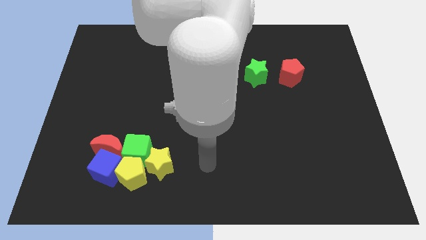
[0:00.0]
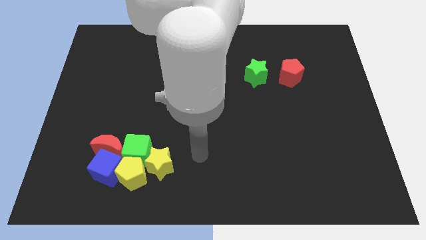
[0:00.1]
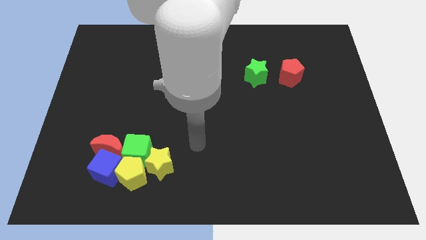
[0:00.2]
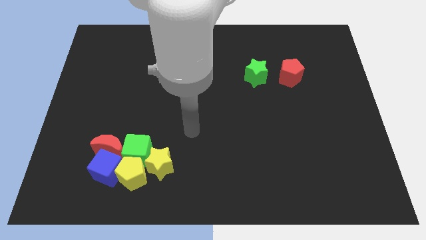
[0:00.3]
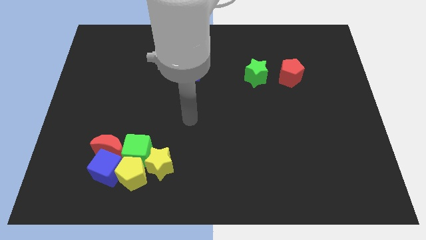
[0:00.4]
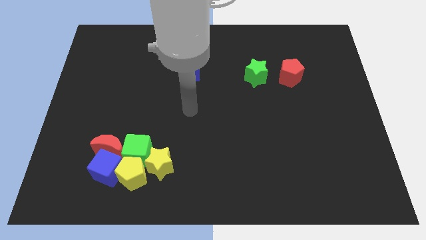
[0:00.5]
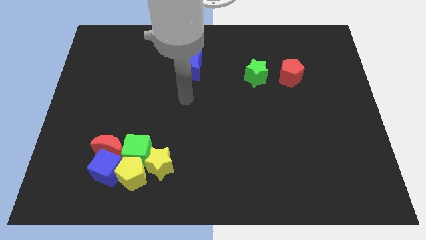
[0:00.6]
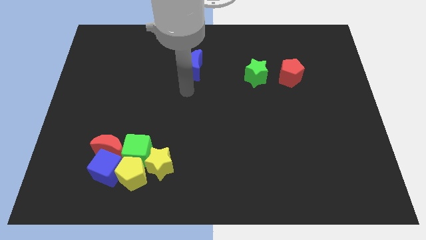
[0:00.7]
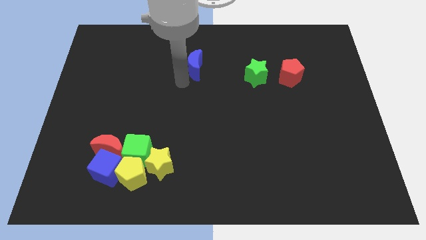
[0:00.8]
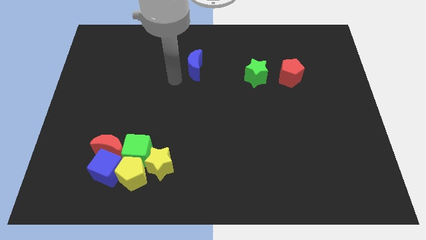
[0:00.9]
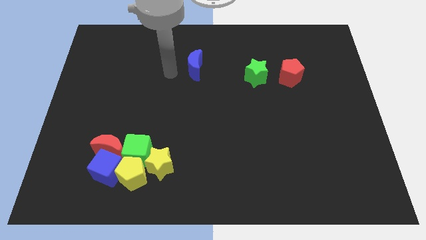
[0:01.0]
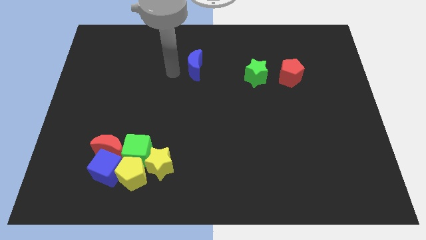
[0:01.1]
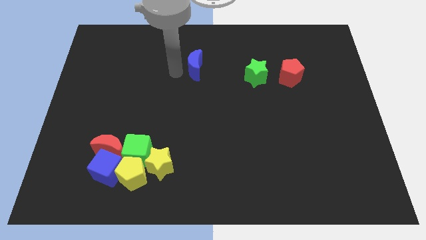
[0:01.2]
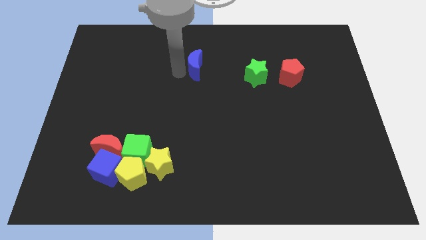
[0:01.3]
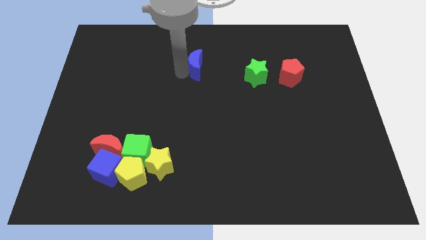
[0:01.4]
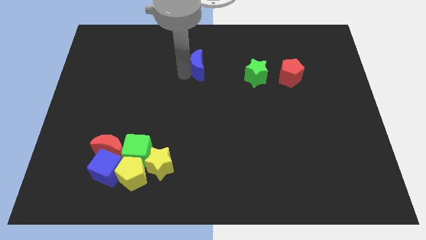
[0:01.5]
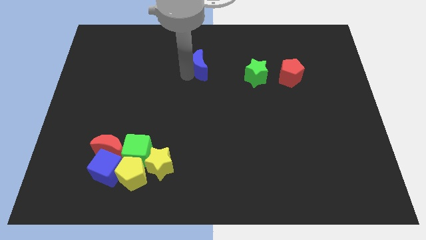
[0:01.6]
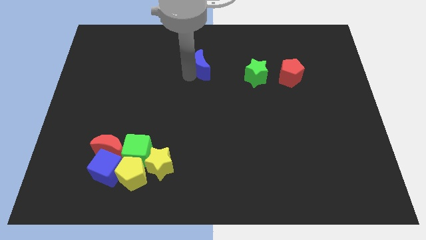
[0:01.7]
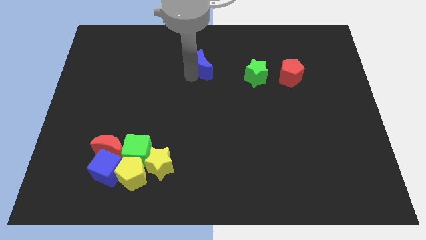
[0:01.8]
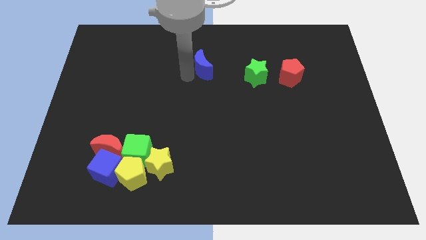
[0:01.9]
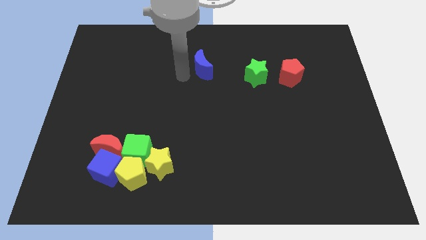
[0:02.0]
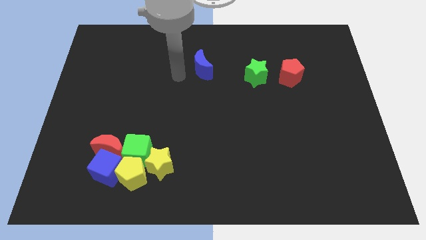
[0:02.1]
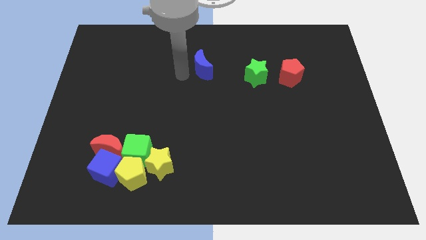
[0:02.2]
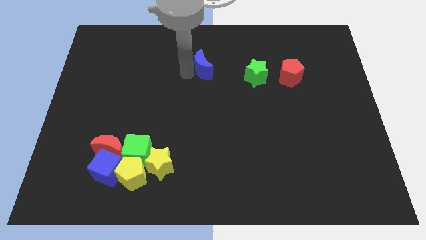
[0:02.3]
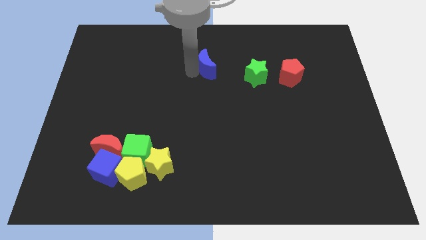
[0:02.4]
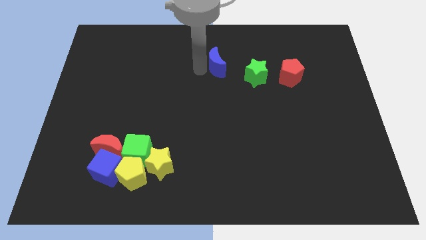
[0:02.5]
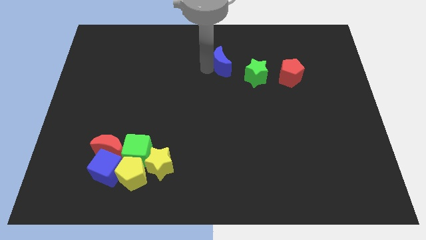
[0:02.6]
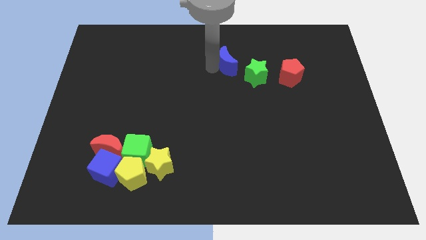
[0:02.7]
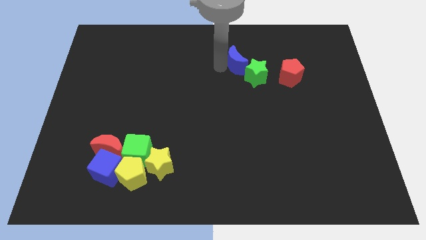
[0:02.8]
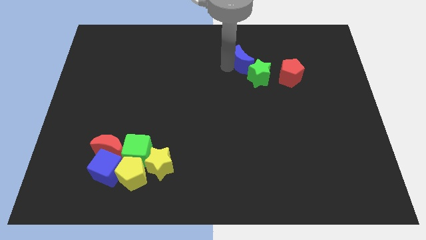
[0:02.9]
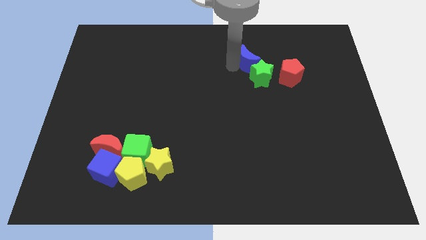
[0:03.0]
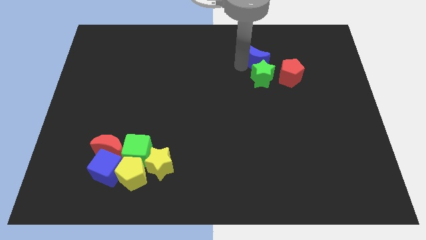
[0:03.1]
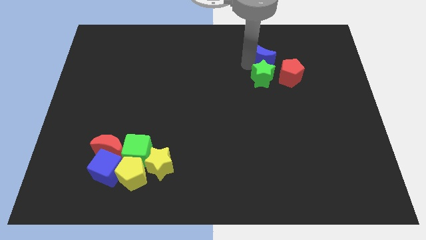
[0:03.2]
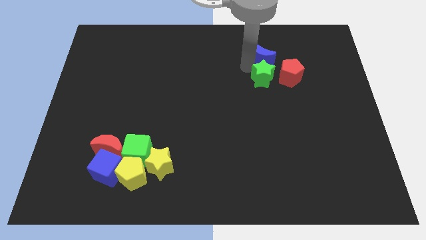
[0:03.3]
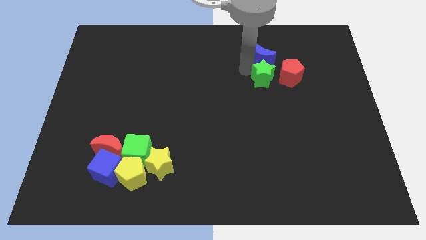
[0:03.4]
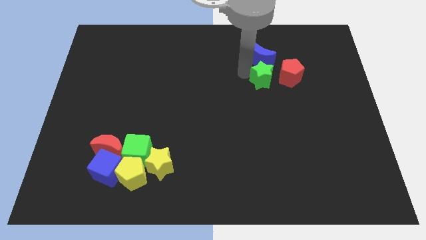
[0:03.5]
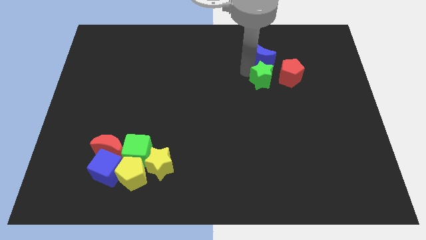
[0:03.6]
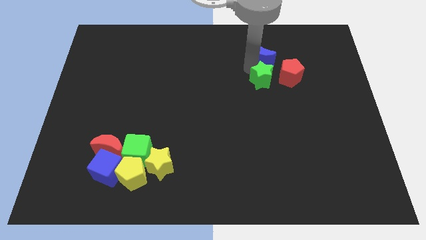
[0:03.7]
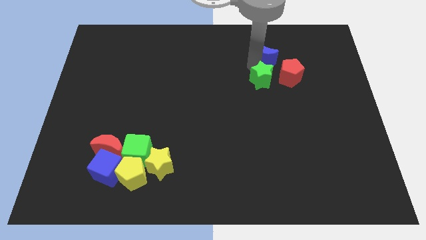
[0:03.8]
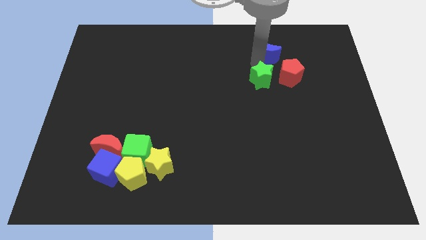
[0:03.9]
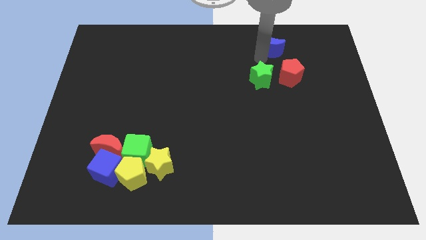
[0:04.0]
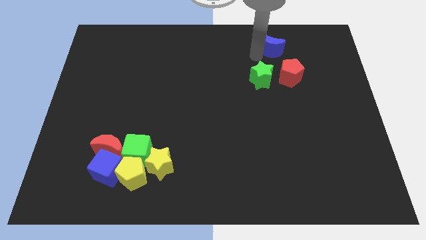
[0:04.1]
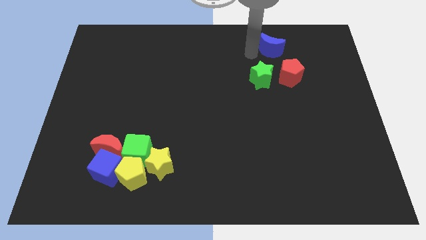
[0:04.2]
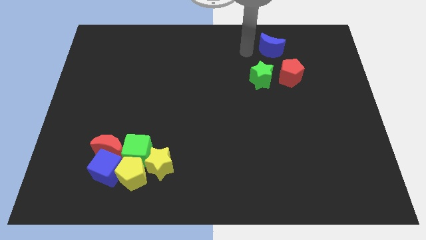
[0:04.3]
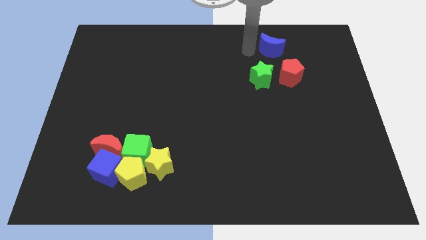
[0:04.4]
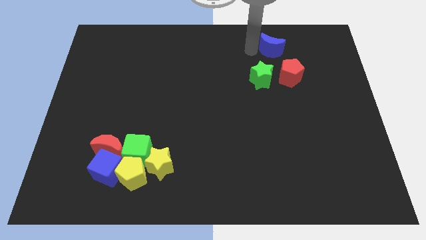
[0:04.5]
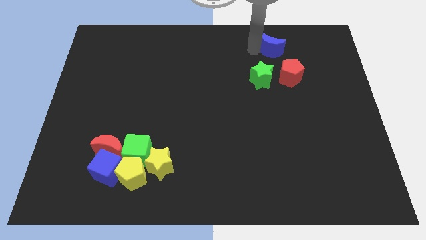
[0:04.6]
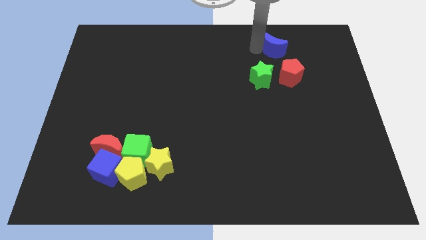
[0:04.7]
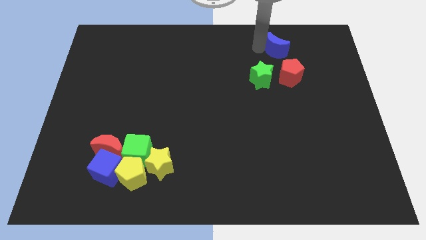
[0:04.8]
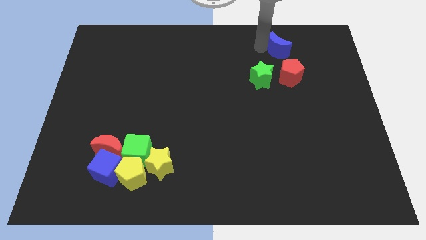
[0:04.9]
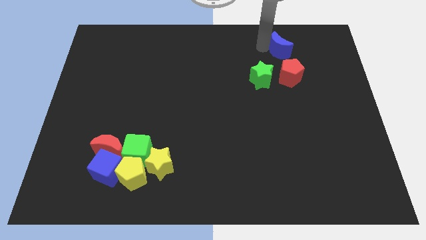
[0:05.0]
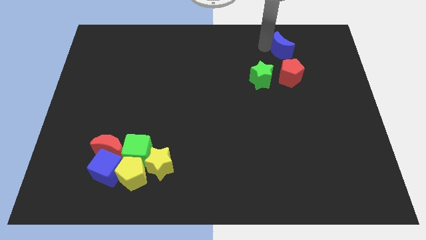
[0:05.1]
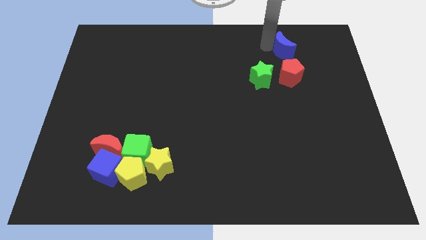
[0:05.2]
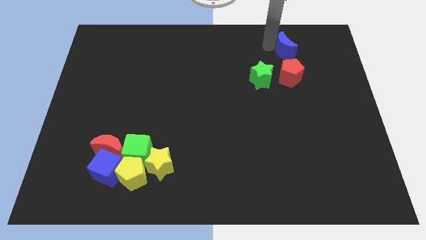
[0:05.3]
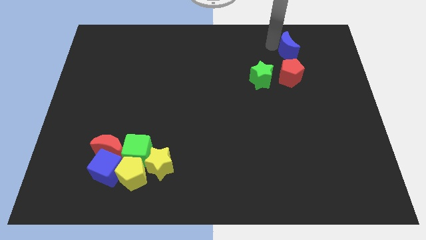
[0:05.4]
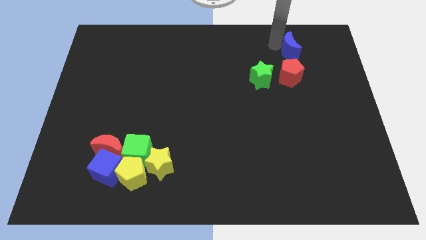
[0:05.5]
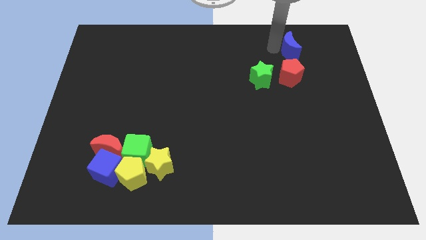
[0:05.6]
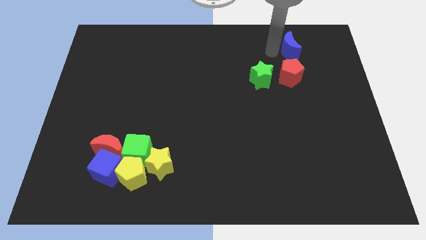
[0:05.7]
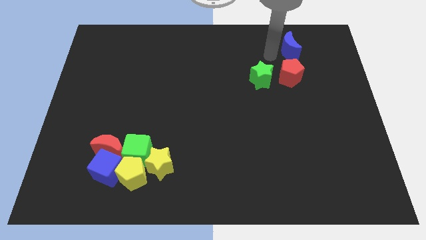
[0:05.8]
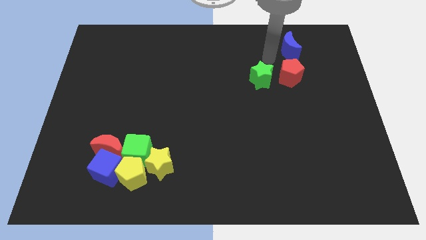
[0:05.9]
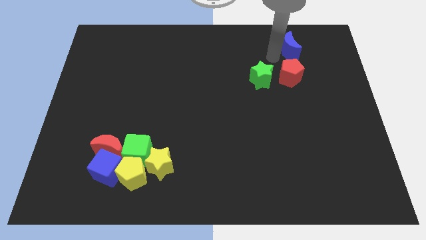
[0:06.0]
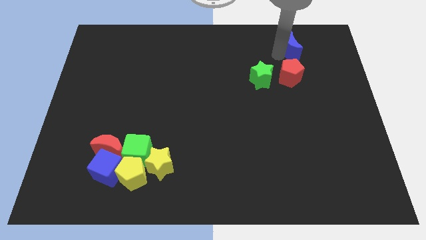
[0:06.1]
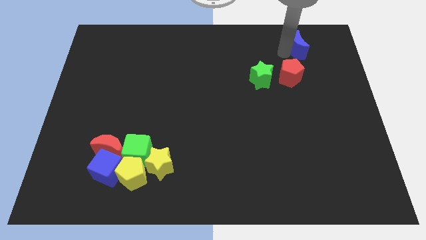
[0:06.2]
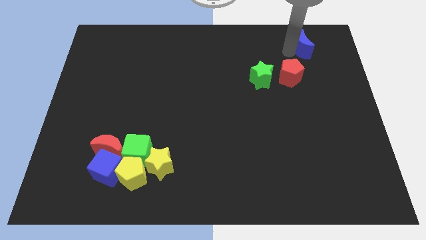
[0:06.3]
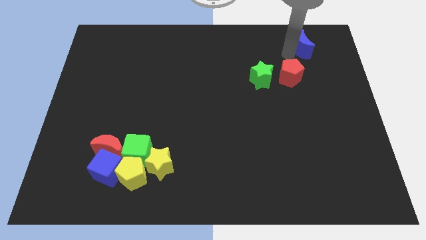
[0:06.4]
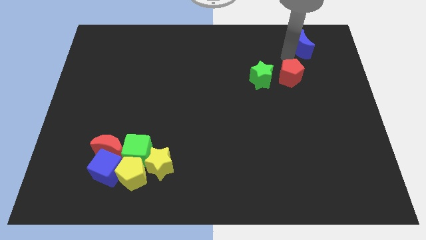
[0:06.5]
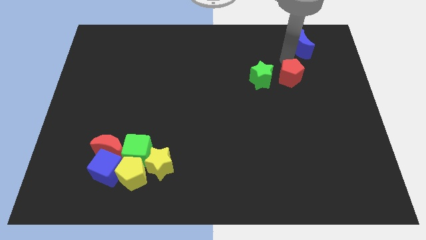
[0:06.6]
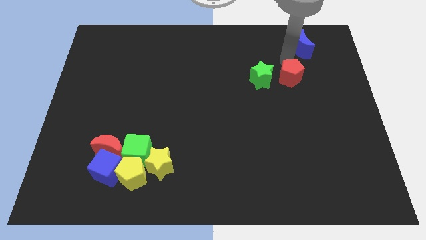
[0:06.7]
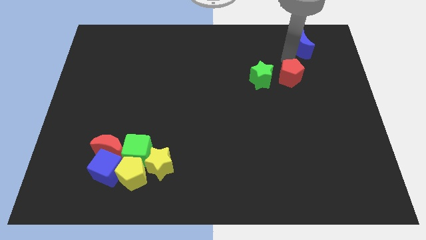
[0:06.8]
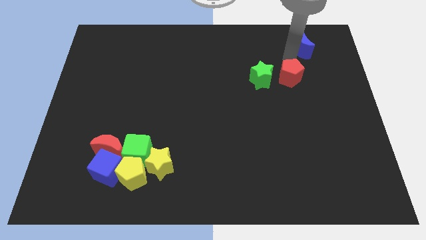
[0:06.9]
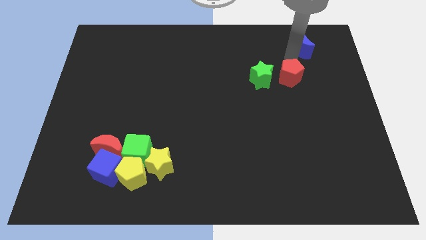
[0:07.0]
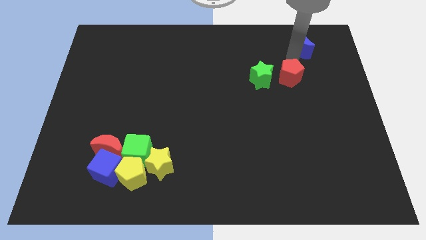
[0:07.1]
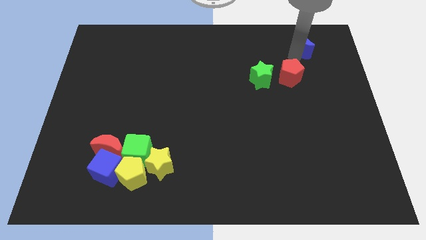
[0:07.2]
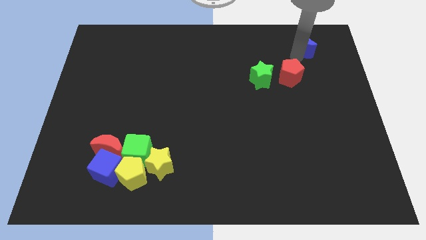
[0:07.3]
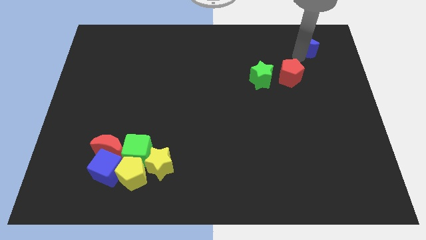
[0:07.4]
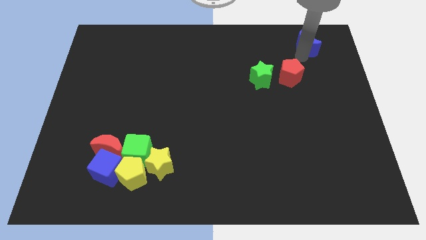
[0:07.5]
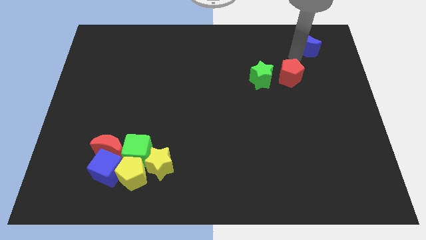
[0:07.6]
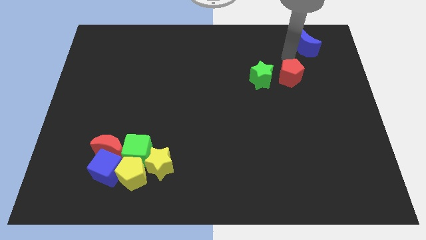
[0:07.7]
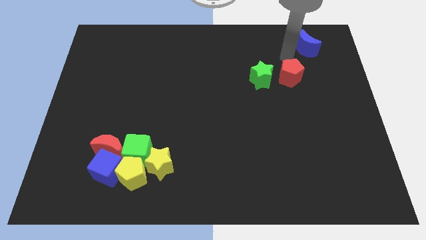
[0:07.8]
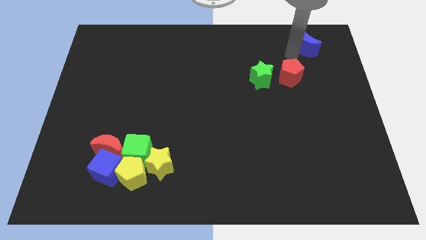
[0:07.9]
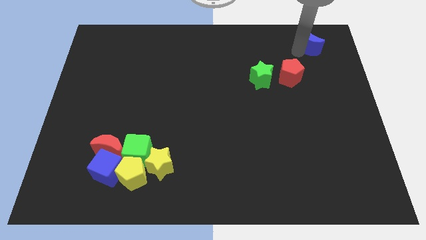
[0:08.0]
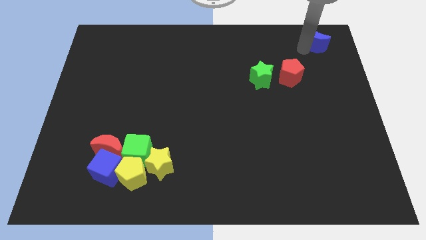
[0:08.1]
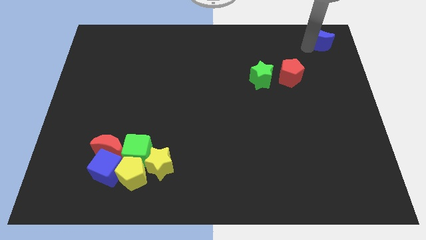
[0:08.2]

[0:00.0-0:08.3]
move the blue moon to the upper right corner
